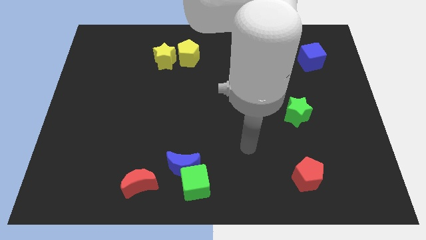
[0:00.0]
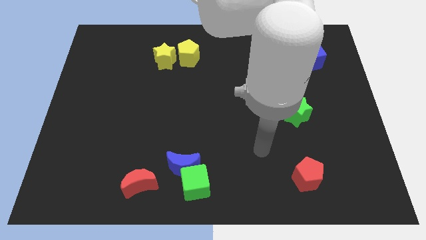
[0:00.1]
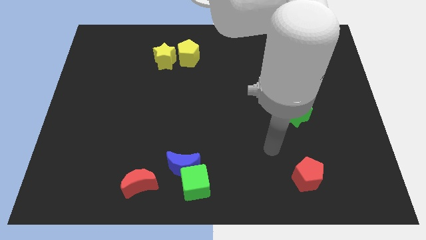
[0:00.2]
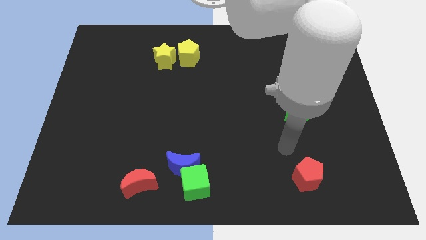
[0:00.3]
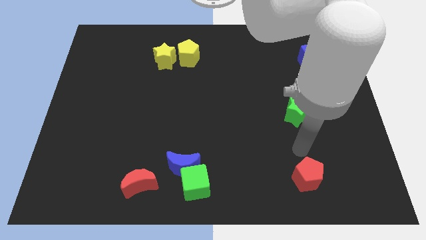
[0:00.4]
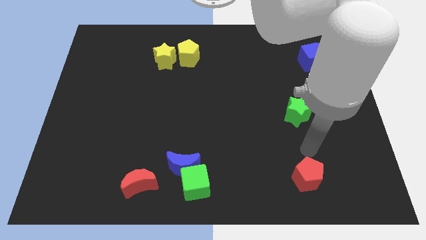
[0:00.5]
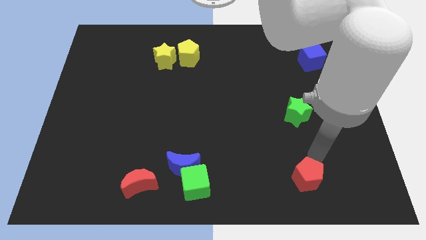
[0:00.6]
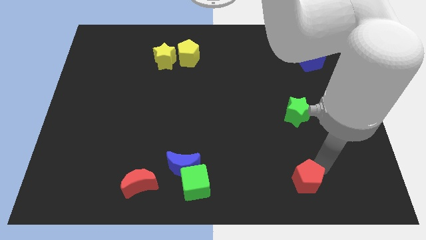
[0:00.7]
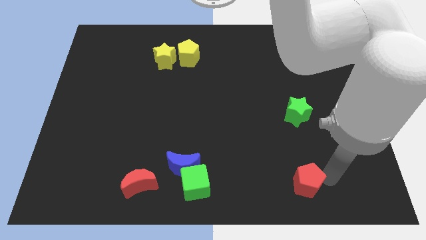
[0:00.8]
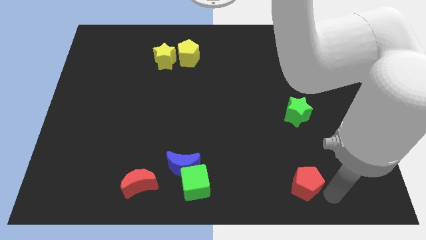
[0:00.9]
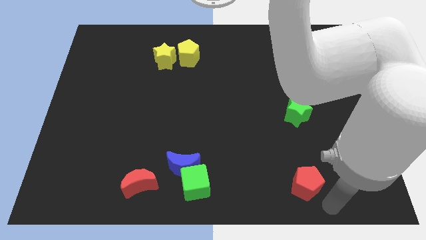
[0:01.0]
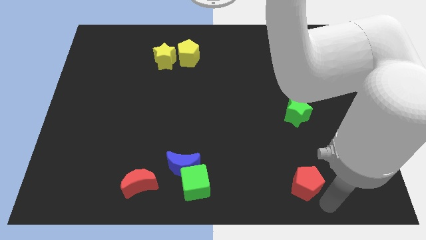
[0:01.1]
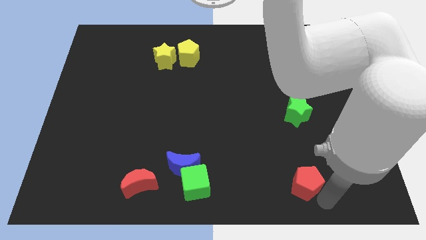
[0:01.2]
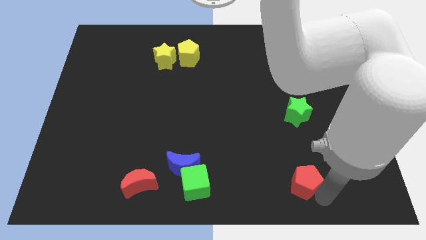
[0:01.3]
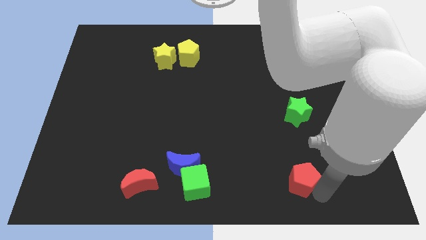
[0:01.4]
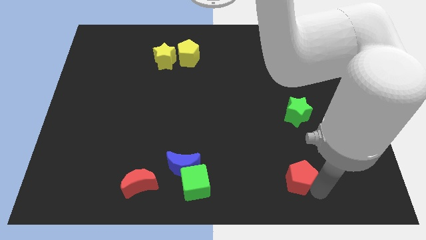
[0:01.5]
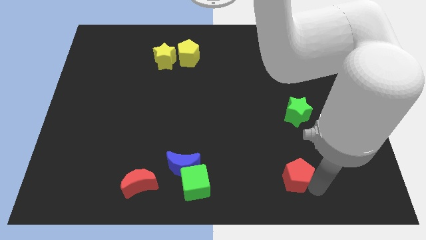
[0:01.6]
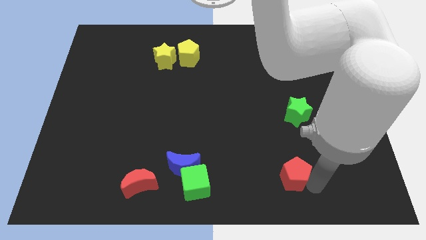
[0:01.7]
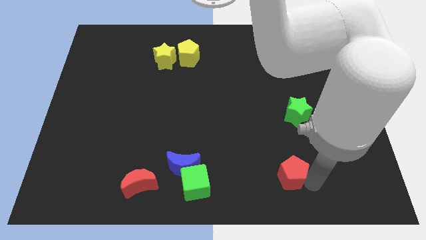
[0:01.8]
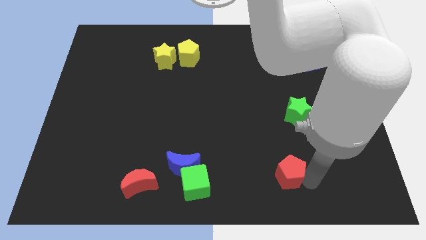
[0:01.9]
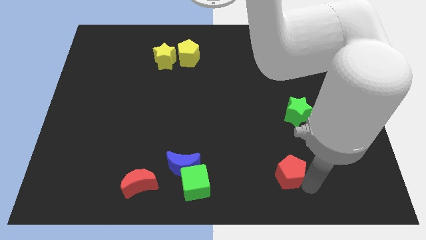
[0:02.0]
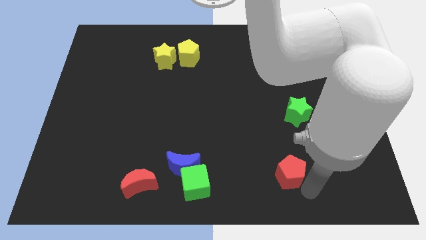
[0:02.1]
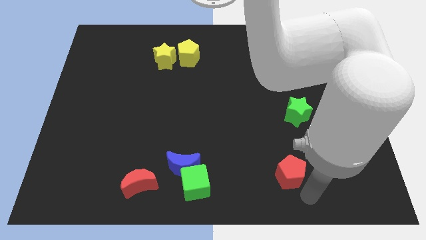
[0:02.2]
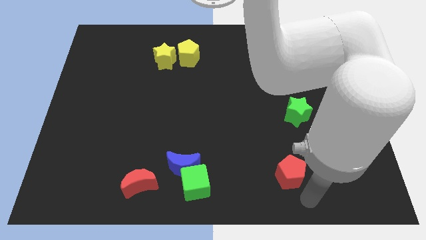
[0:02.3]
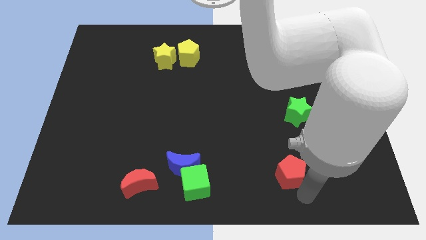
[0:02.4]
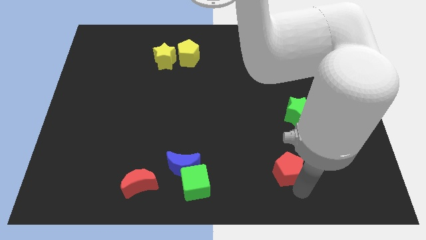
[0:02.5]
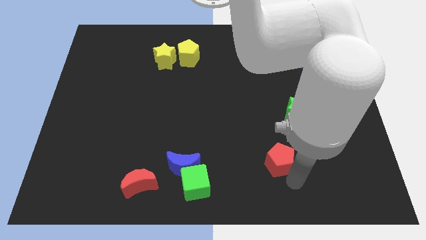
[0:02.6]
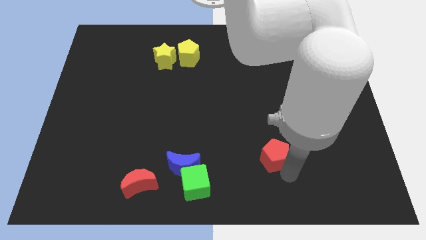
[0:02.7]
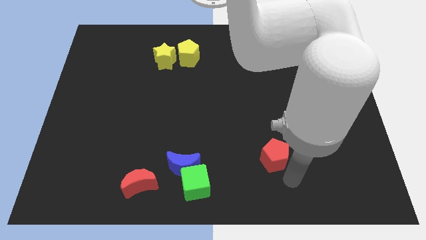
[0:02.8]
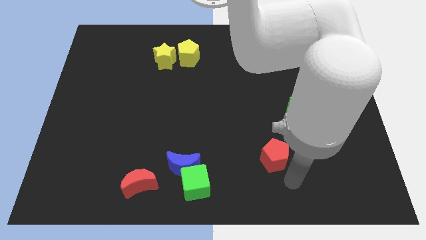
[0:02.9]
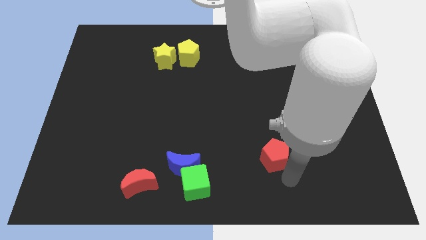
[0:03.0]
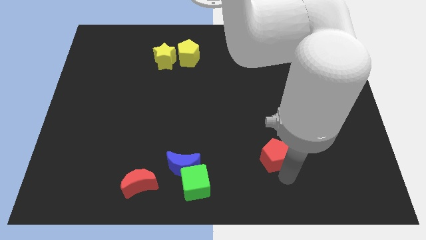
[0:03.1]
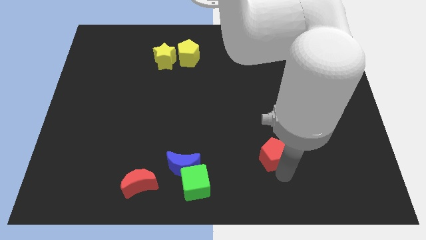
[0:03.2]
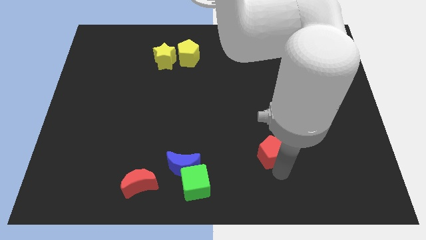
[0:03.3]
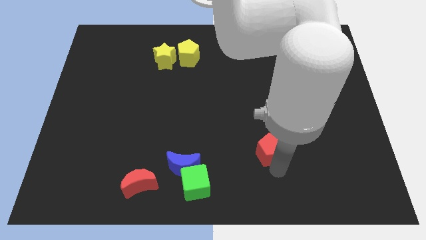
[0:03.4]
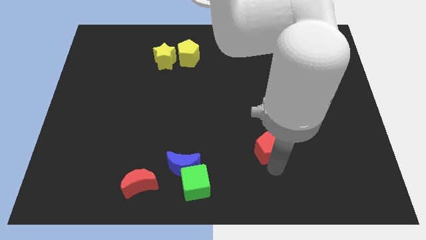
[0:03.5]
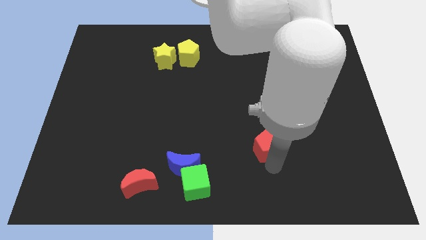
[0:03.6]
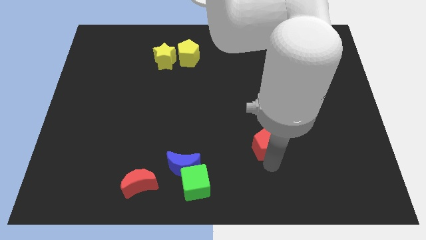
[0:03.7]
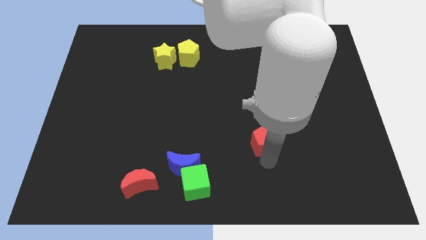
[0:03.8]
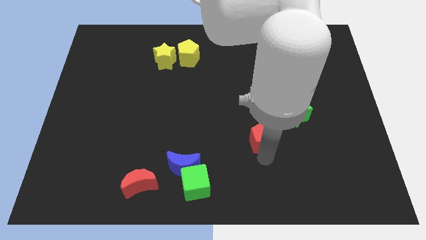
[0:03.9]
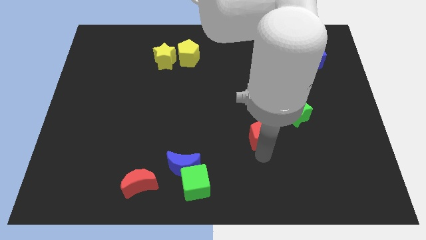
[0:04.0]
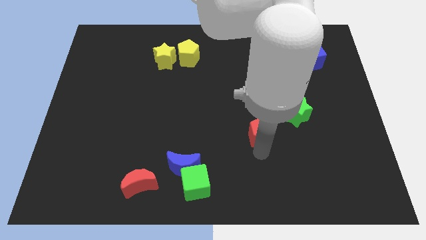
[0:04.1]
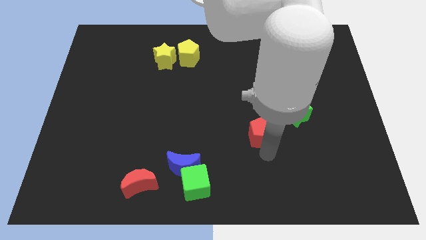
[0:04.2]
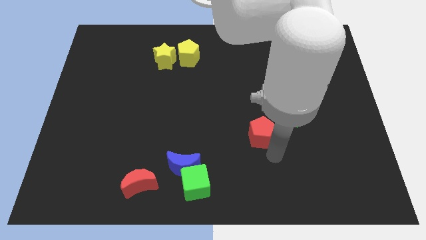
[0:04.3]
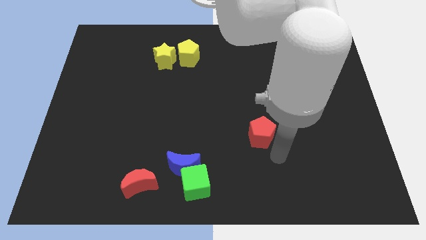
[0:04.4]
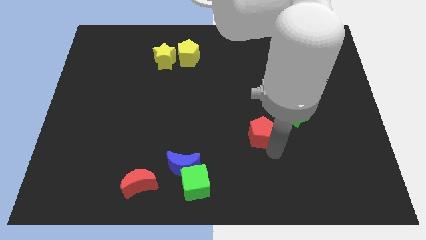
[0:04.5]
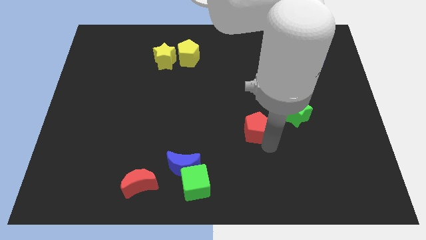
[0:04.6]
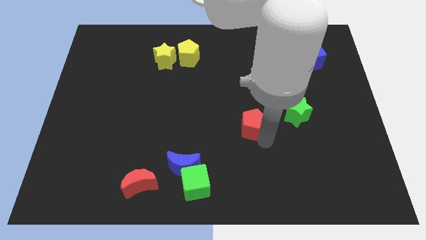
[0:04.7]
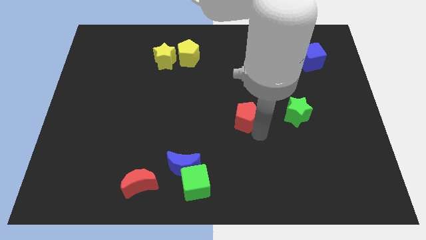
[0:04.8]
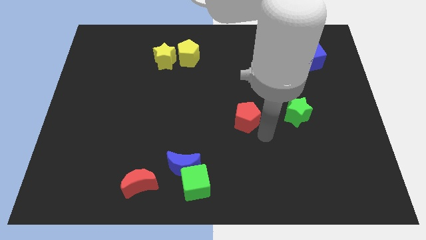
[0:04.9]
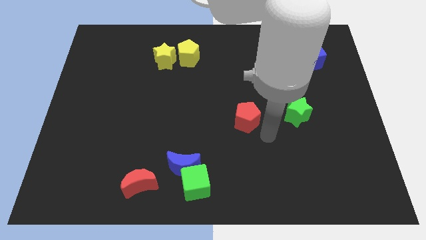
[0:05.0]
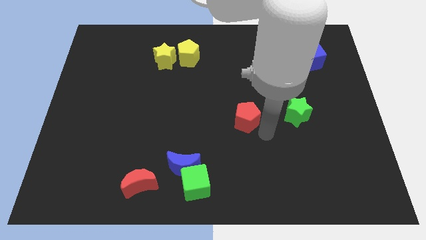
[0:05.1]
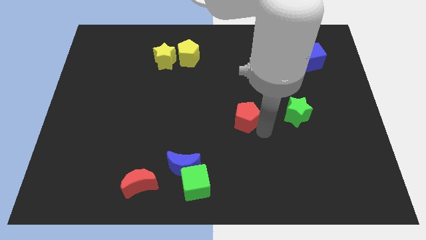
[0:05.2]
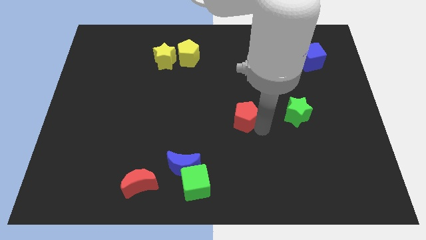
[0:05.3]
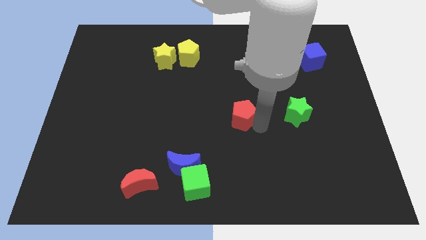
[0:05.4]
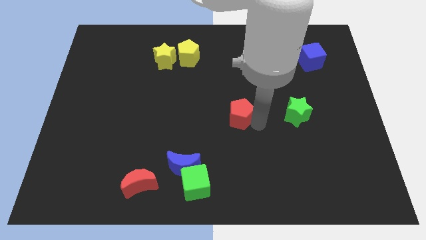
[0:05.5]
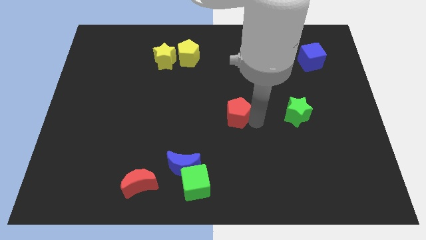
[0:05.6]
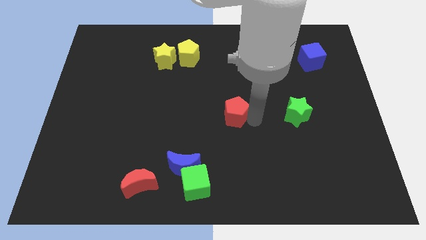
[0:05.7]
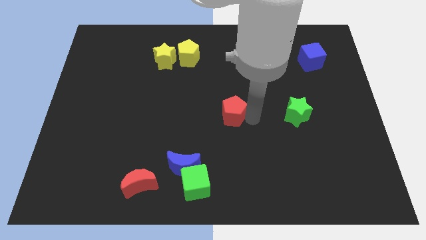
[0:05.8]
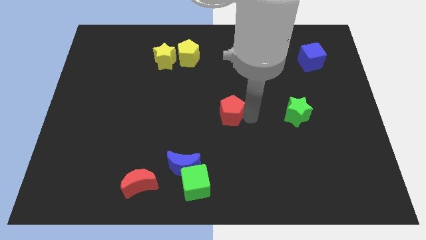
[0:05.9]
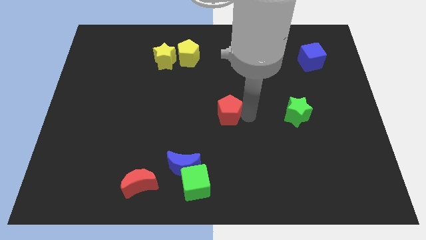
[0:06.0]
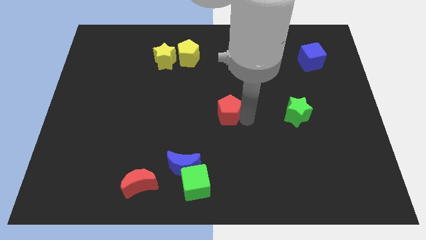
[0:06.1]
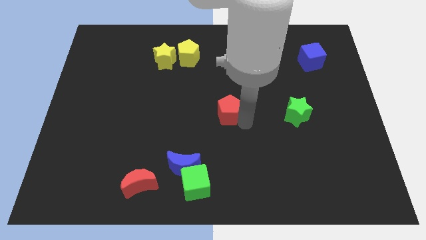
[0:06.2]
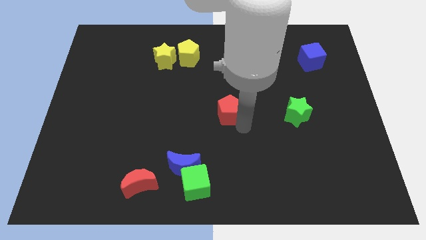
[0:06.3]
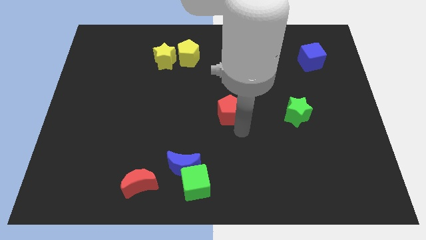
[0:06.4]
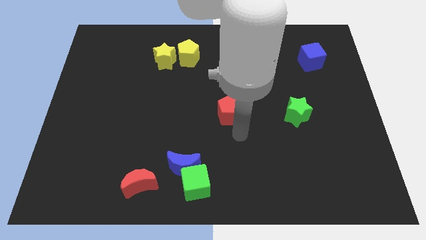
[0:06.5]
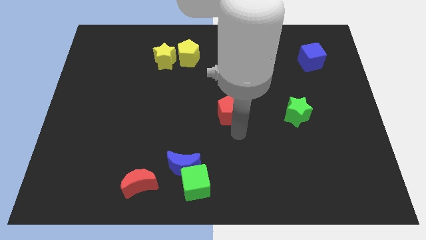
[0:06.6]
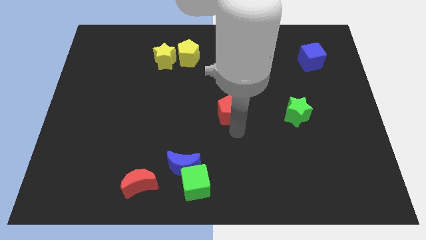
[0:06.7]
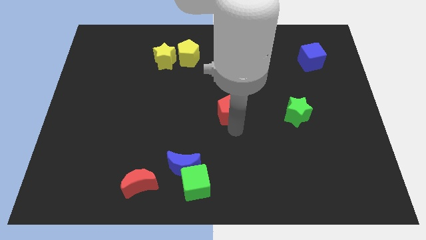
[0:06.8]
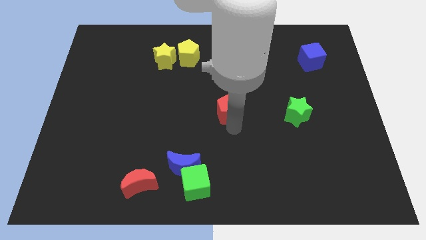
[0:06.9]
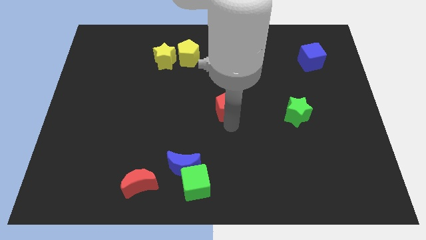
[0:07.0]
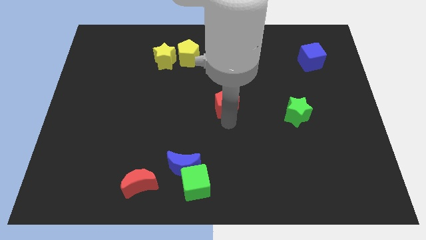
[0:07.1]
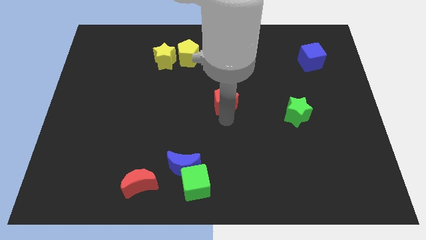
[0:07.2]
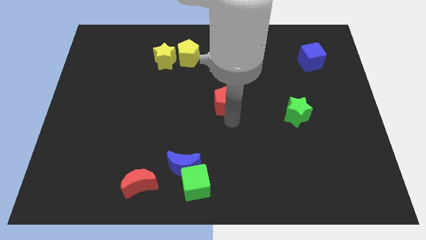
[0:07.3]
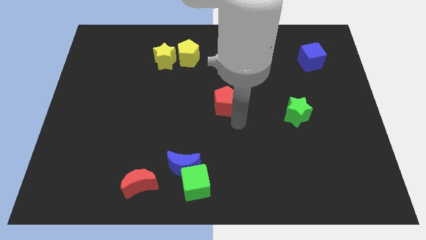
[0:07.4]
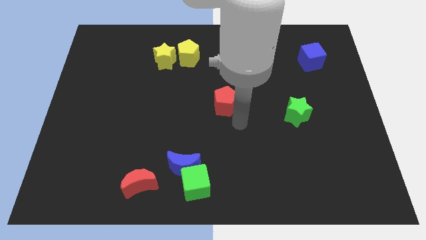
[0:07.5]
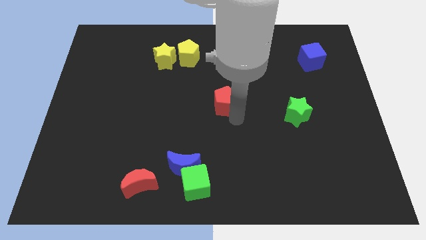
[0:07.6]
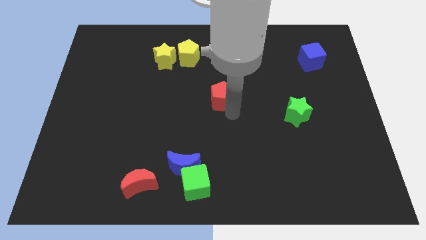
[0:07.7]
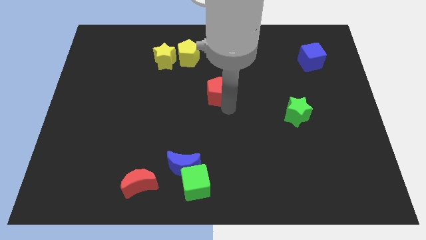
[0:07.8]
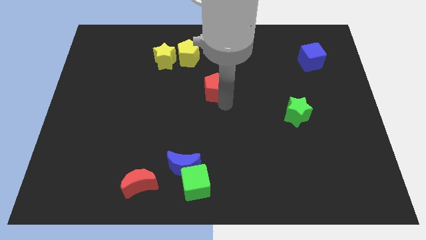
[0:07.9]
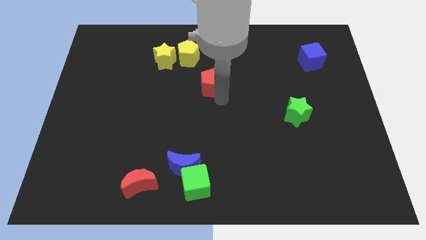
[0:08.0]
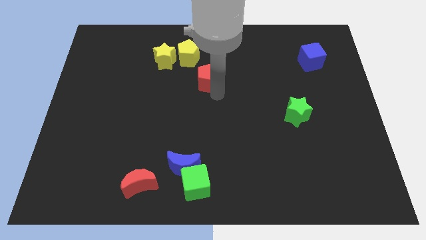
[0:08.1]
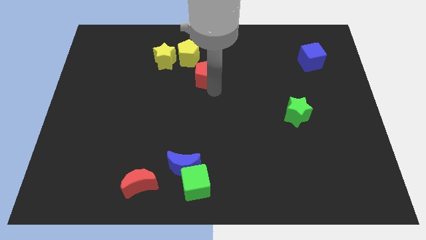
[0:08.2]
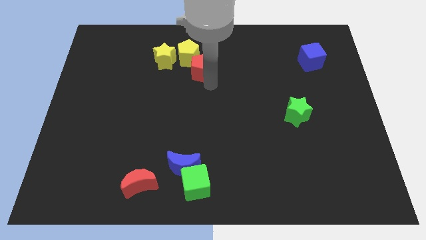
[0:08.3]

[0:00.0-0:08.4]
put the red pentagon next to the yellow pentagon
